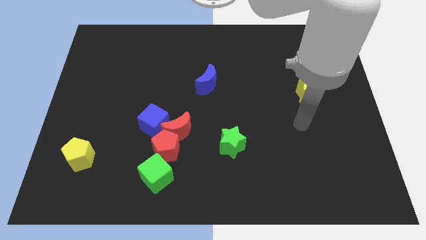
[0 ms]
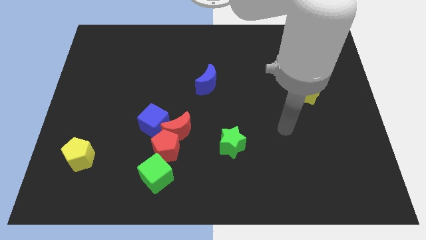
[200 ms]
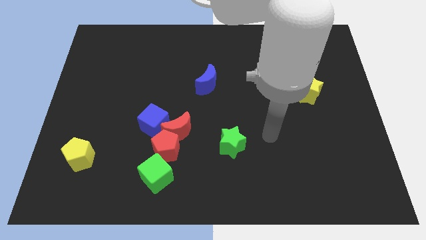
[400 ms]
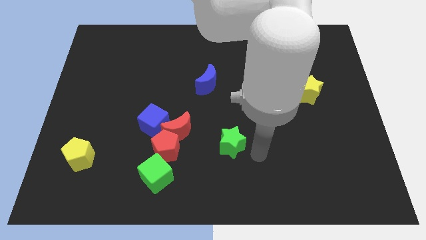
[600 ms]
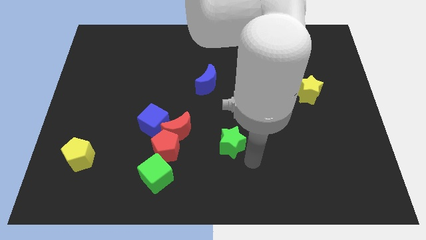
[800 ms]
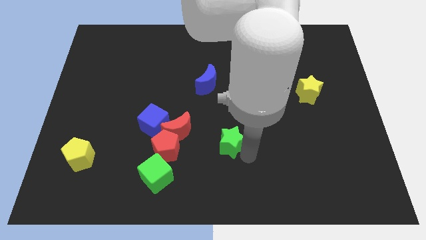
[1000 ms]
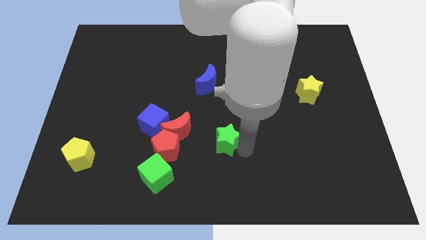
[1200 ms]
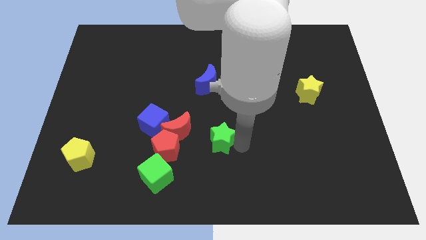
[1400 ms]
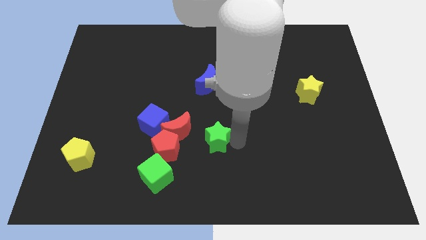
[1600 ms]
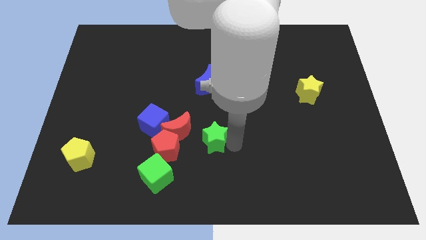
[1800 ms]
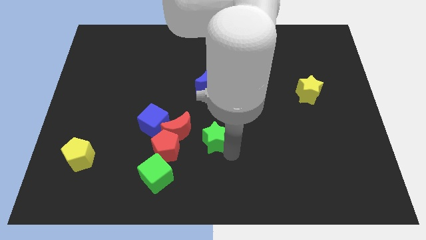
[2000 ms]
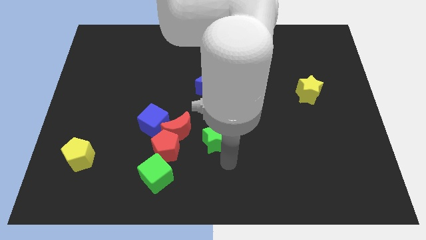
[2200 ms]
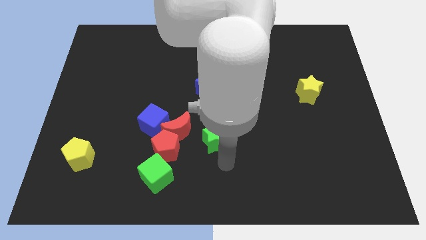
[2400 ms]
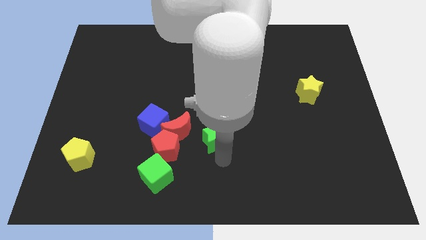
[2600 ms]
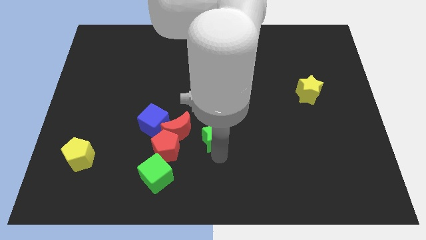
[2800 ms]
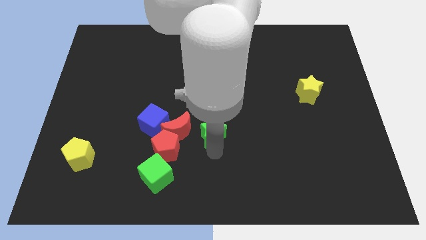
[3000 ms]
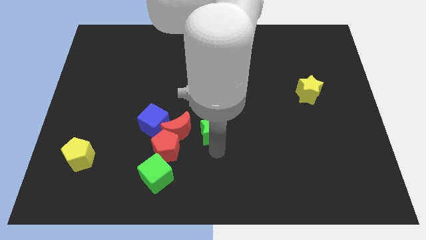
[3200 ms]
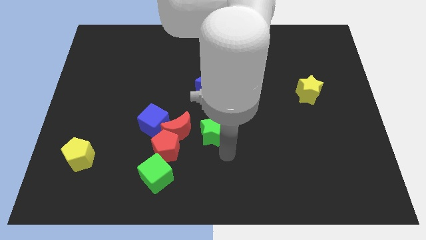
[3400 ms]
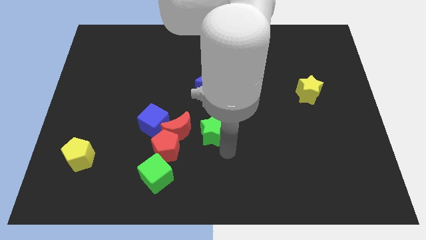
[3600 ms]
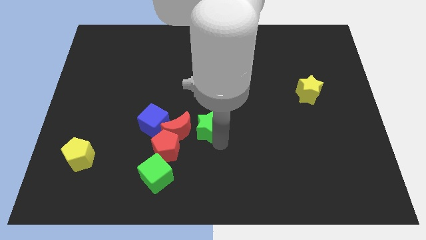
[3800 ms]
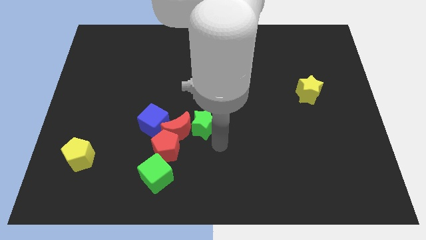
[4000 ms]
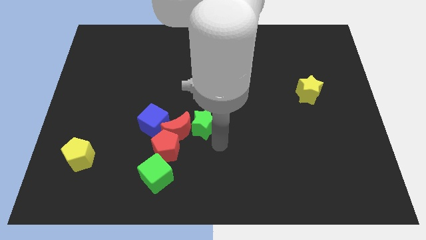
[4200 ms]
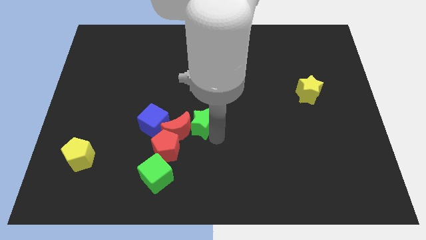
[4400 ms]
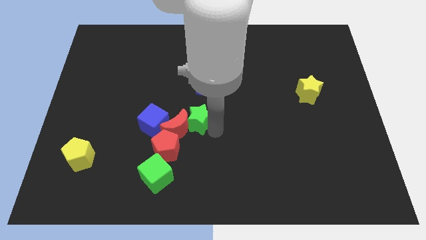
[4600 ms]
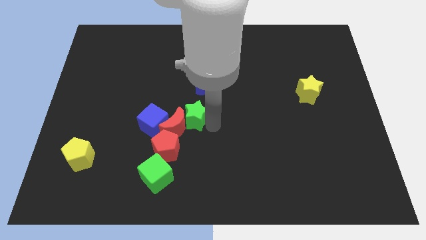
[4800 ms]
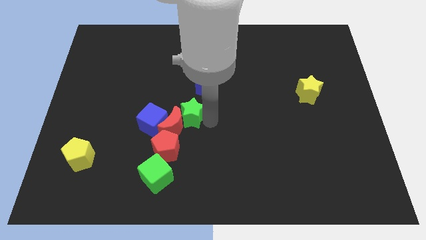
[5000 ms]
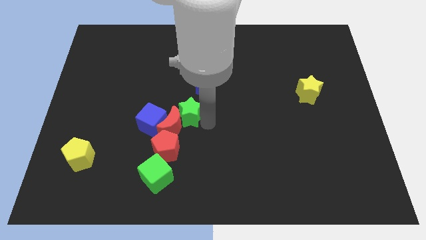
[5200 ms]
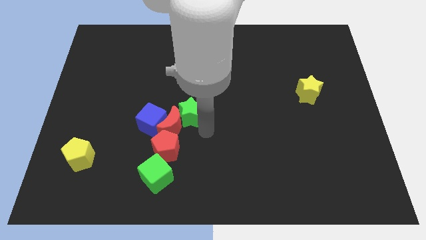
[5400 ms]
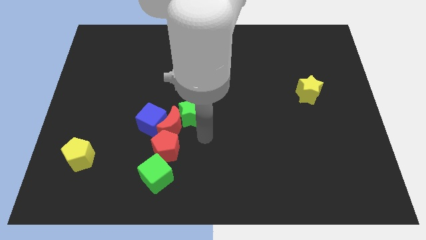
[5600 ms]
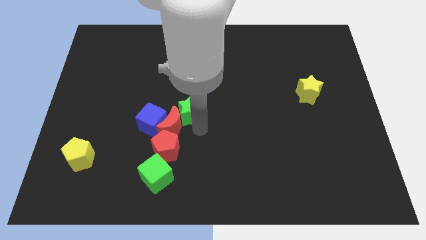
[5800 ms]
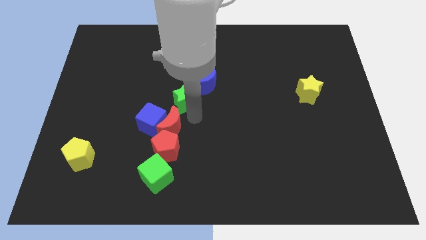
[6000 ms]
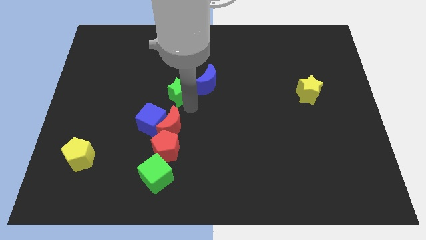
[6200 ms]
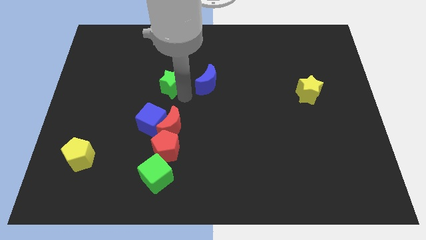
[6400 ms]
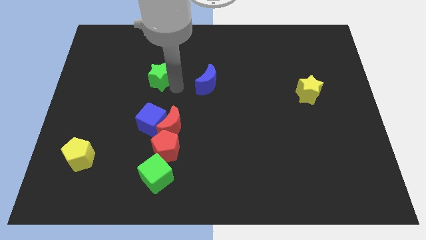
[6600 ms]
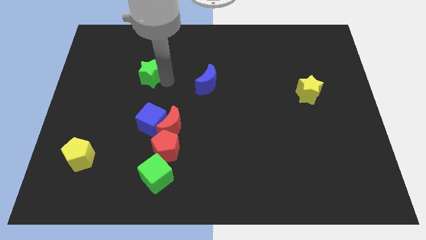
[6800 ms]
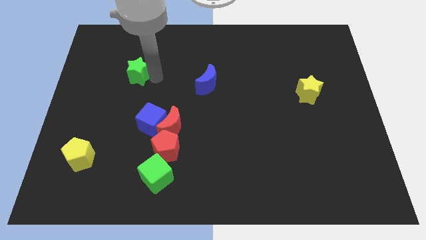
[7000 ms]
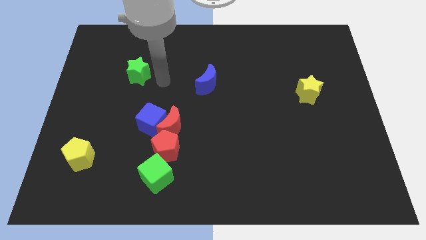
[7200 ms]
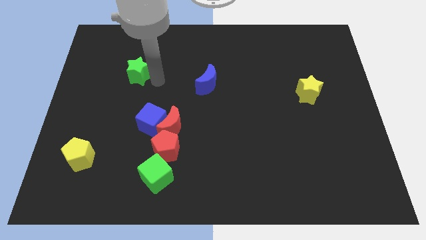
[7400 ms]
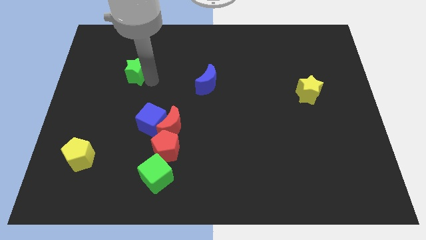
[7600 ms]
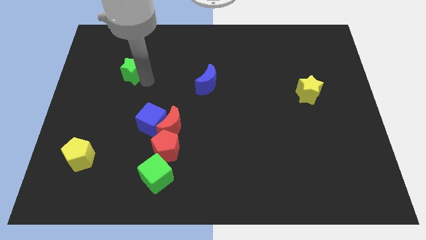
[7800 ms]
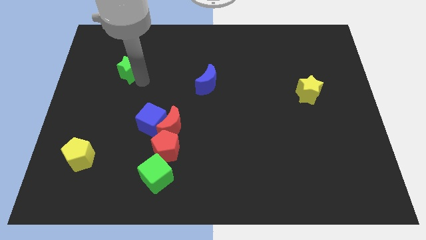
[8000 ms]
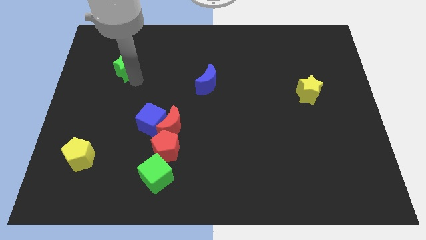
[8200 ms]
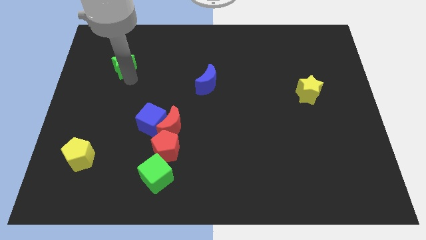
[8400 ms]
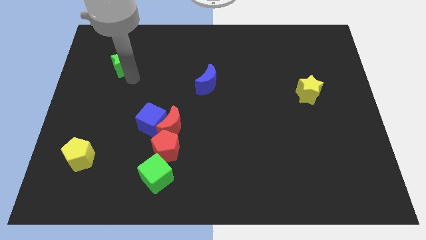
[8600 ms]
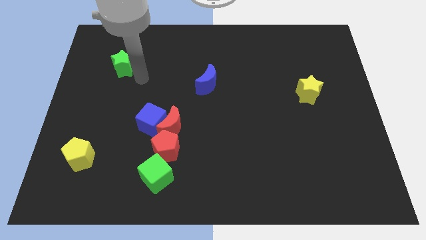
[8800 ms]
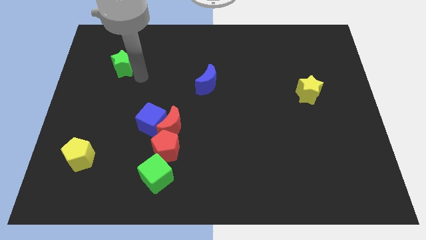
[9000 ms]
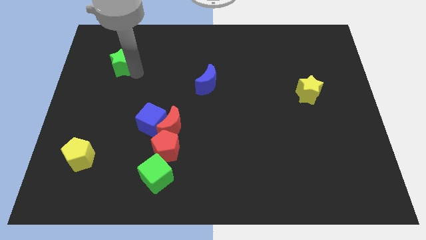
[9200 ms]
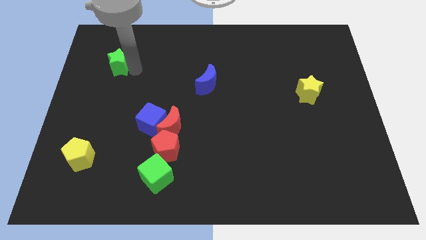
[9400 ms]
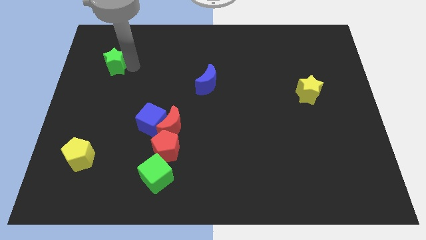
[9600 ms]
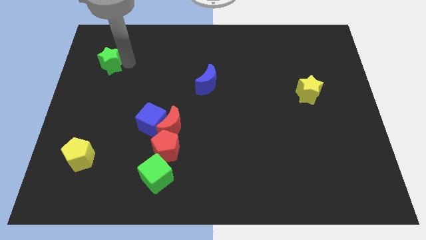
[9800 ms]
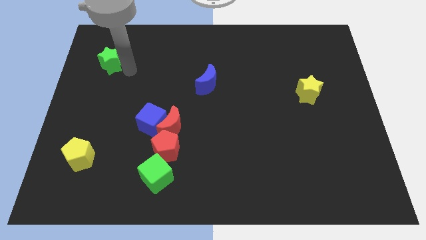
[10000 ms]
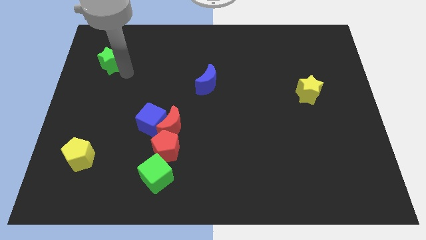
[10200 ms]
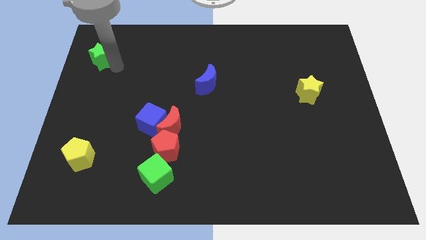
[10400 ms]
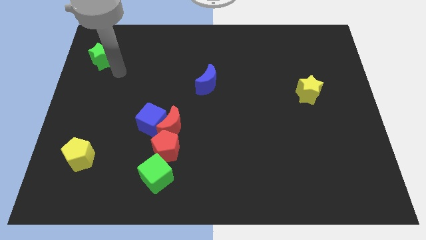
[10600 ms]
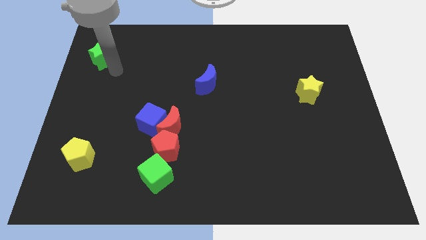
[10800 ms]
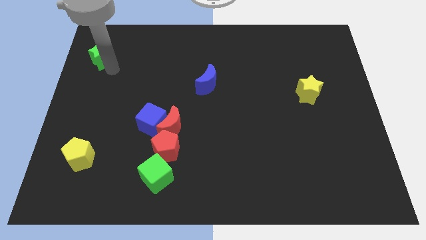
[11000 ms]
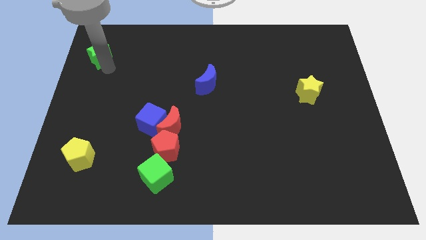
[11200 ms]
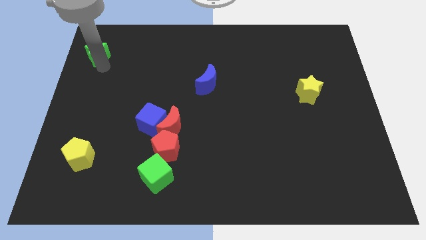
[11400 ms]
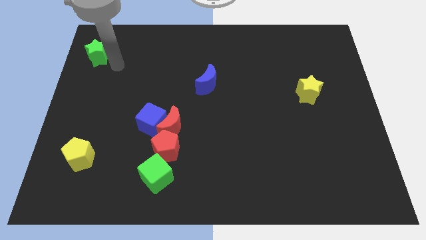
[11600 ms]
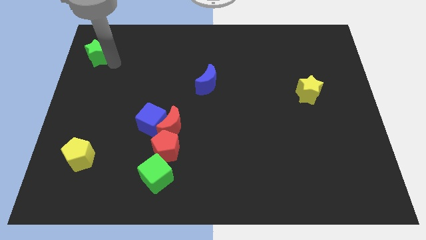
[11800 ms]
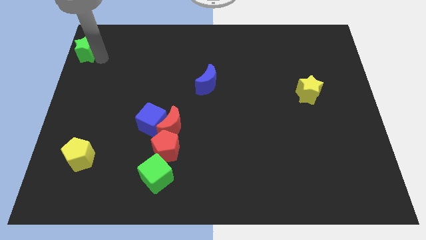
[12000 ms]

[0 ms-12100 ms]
move the green star to the top left
